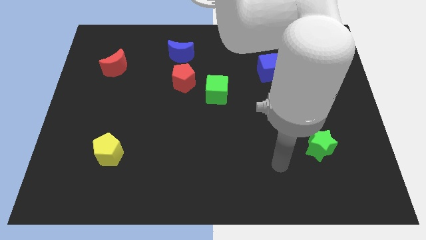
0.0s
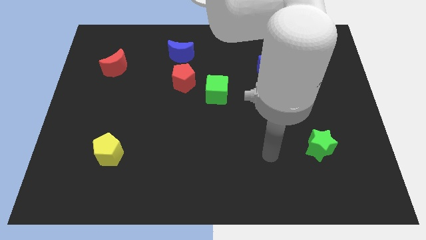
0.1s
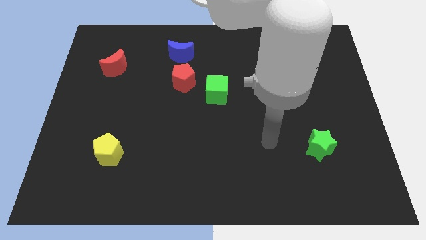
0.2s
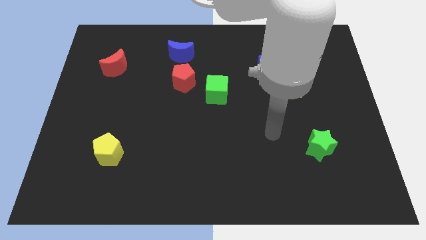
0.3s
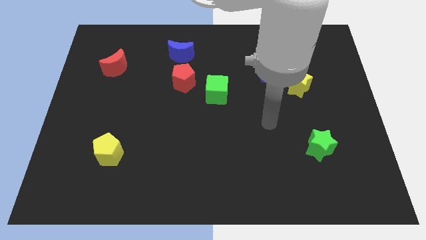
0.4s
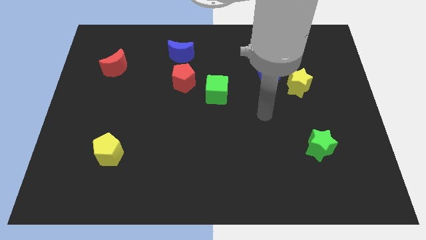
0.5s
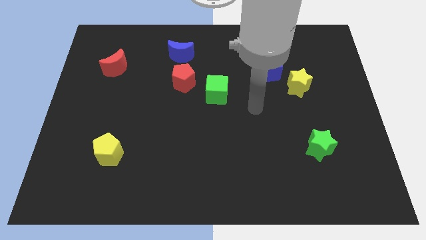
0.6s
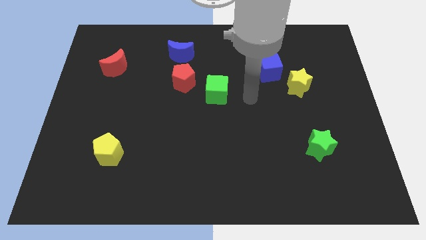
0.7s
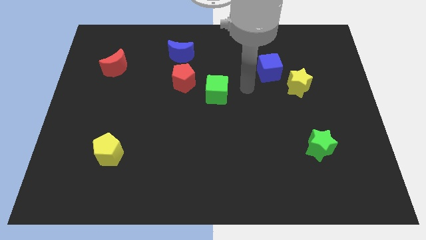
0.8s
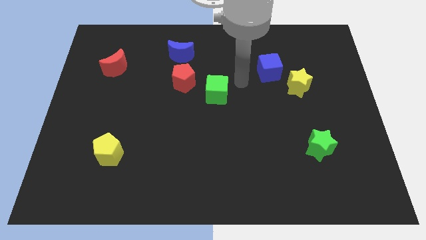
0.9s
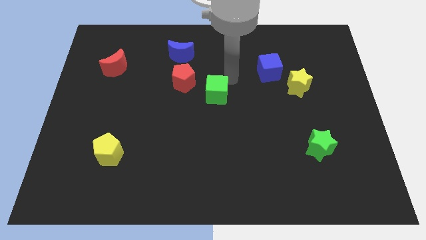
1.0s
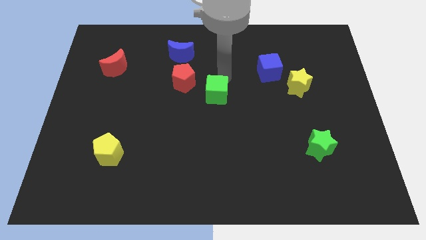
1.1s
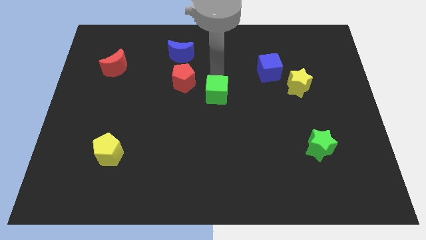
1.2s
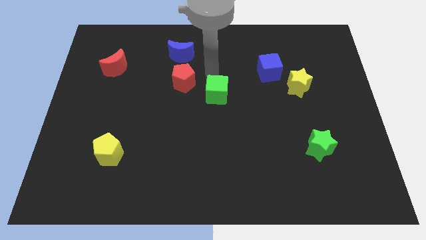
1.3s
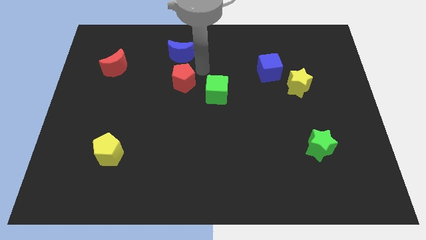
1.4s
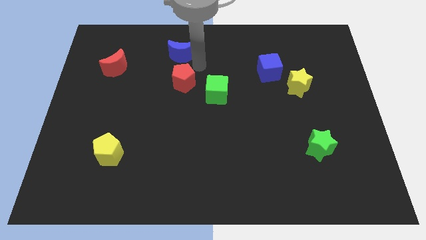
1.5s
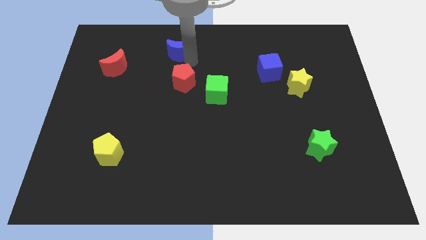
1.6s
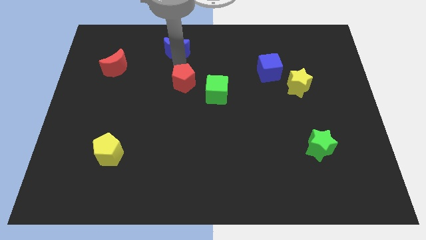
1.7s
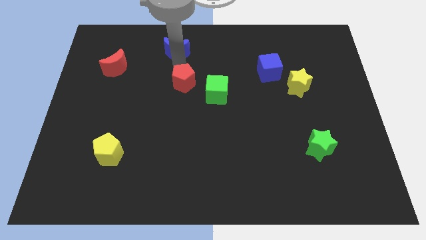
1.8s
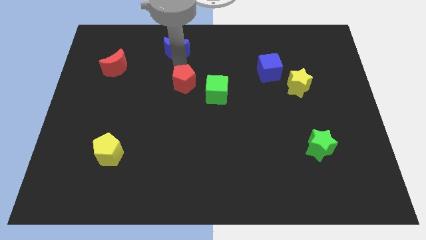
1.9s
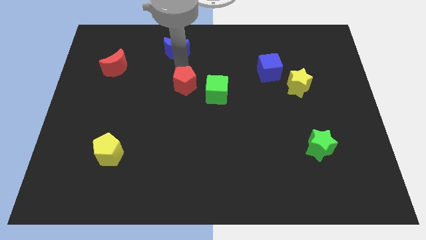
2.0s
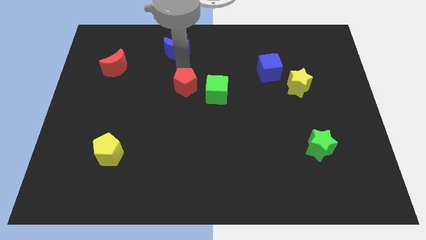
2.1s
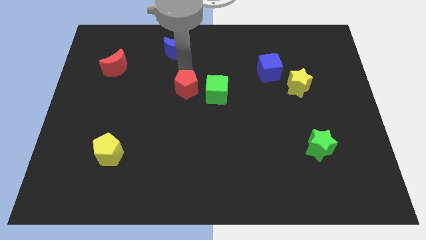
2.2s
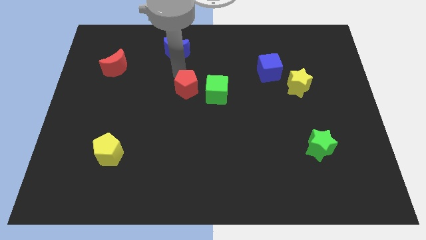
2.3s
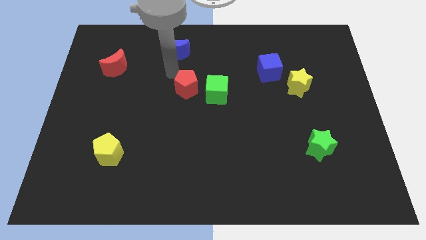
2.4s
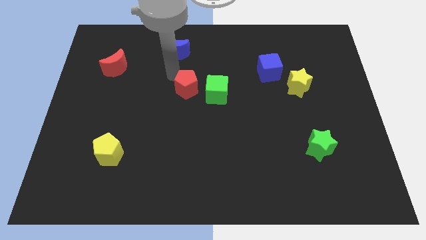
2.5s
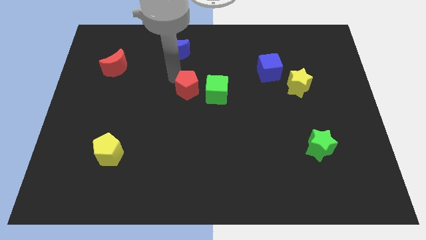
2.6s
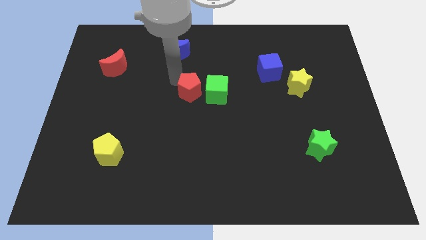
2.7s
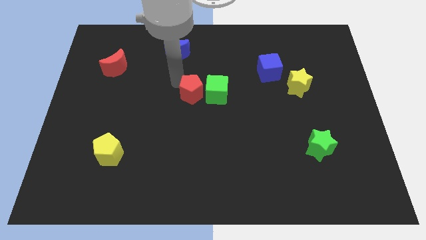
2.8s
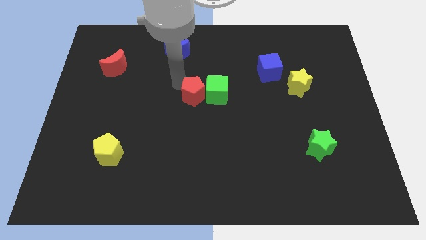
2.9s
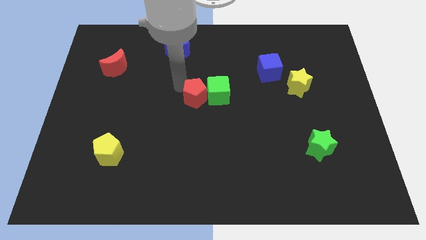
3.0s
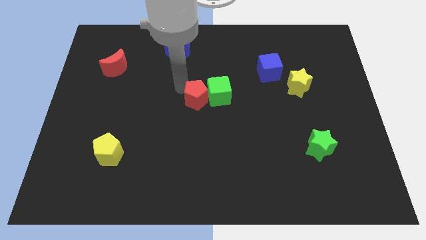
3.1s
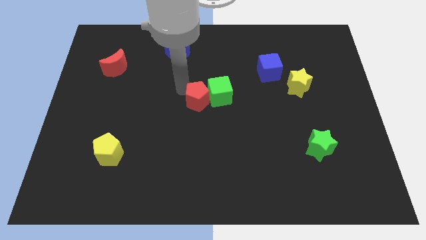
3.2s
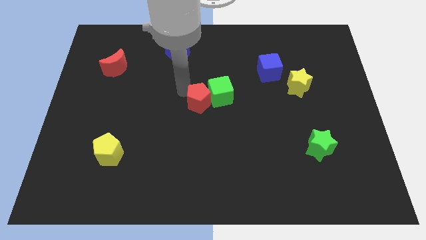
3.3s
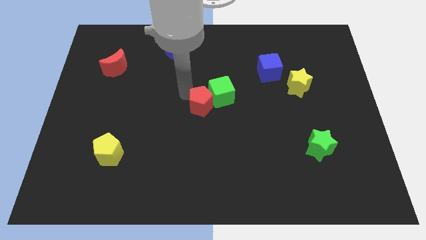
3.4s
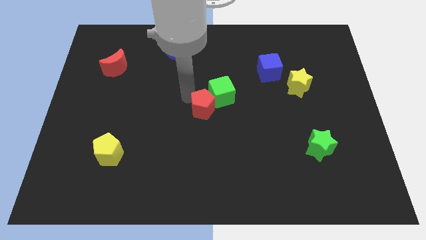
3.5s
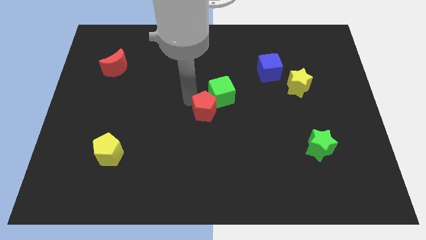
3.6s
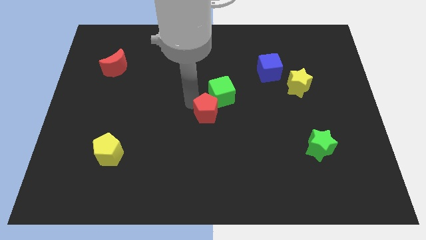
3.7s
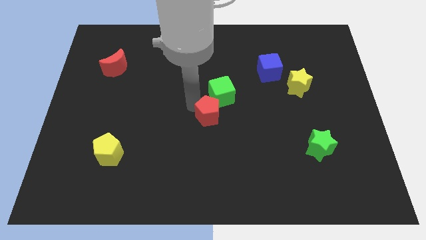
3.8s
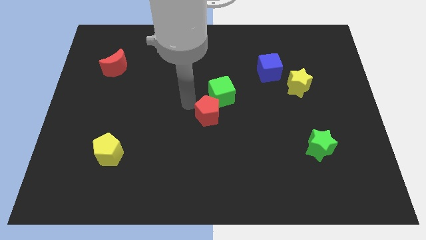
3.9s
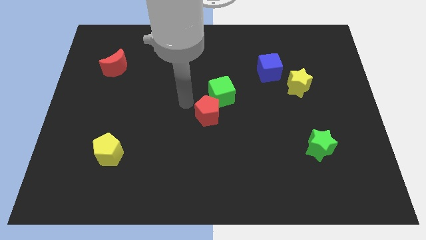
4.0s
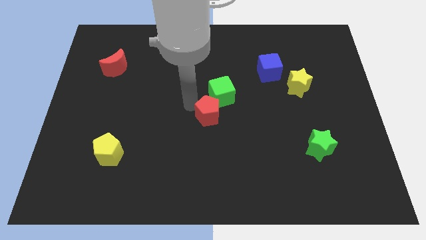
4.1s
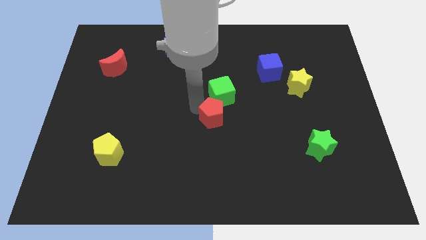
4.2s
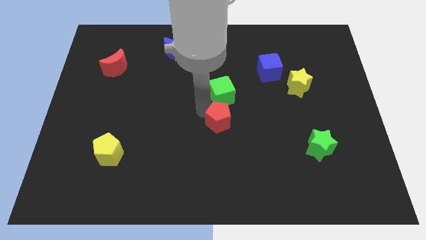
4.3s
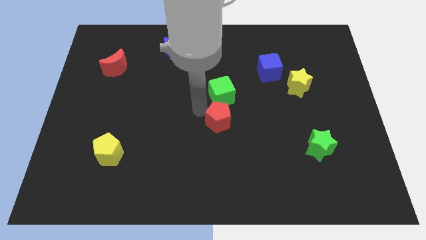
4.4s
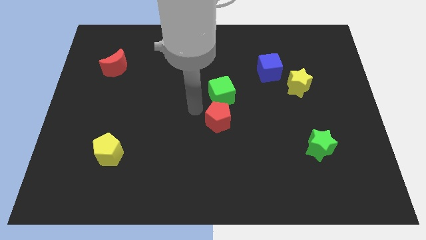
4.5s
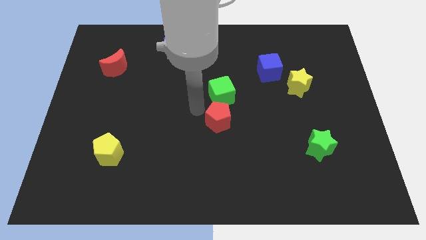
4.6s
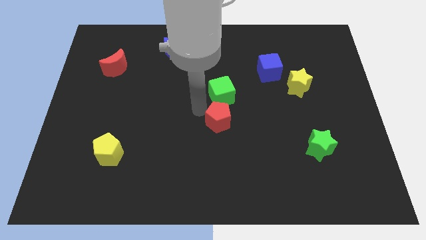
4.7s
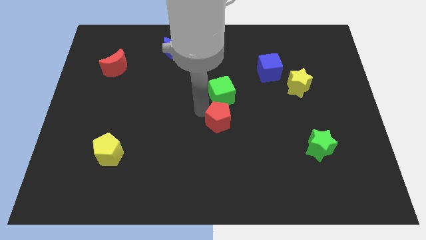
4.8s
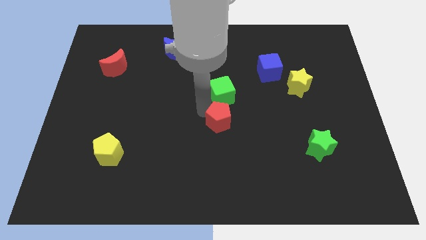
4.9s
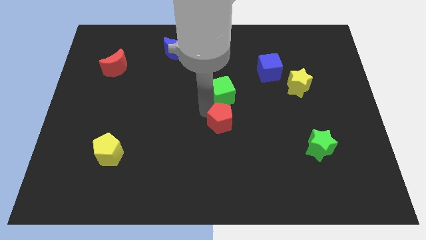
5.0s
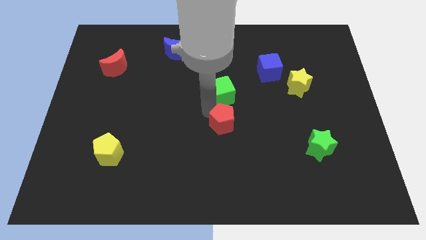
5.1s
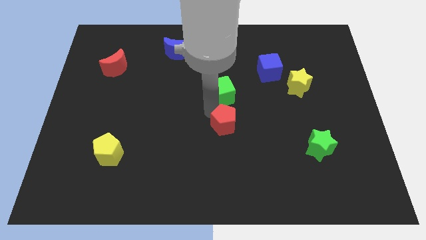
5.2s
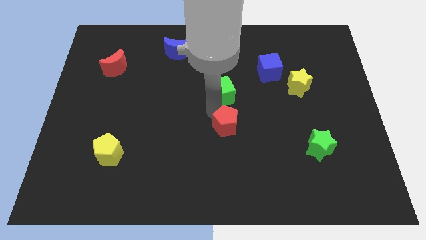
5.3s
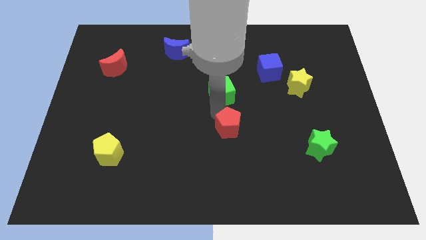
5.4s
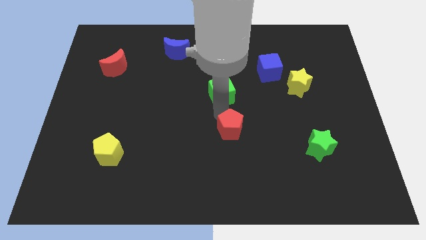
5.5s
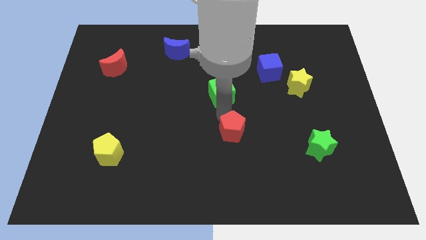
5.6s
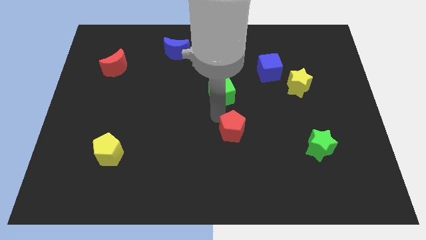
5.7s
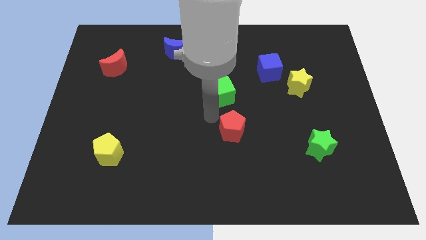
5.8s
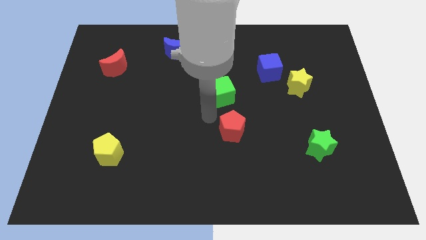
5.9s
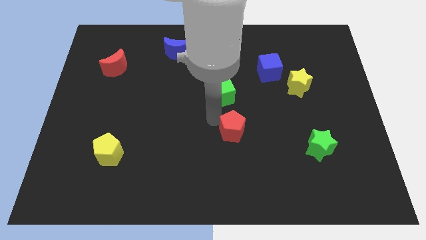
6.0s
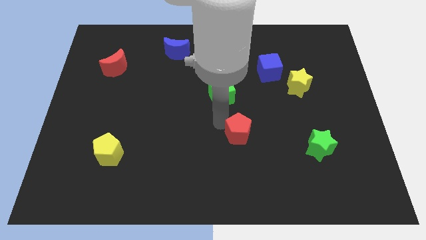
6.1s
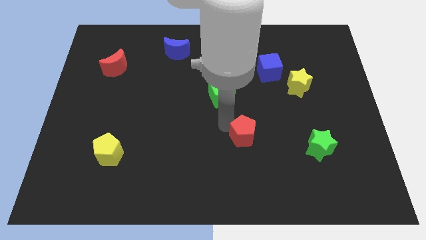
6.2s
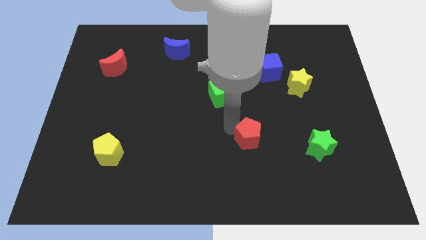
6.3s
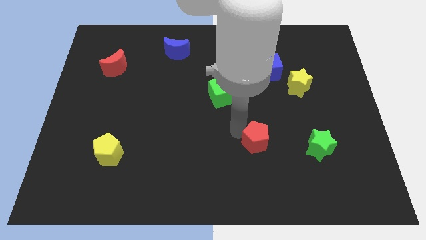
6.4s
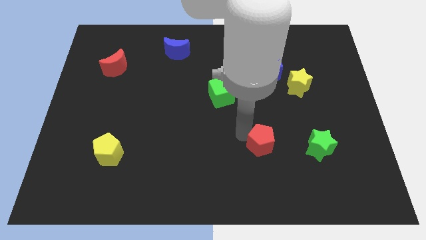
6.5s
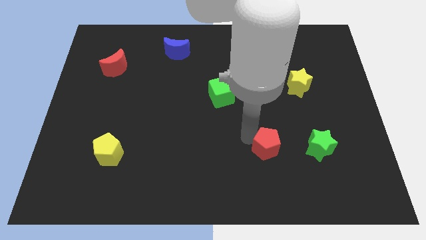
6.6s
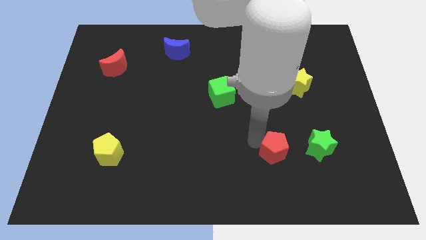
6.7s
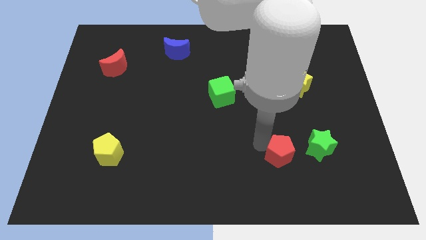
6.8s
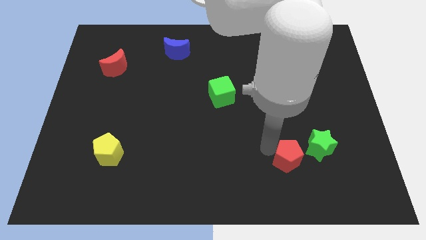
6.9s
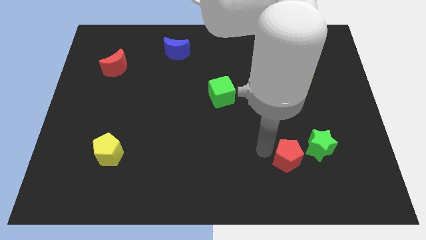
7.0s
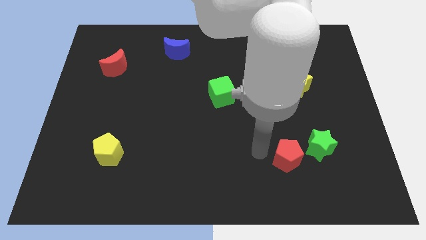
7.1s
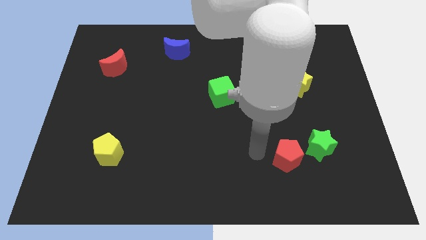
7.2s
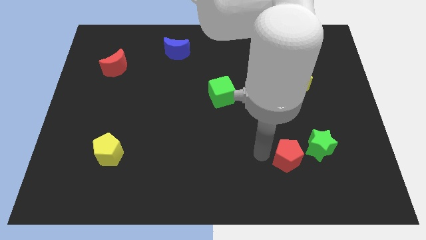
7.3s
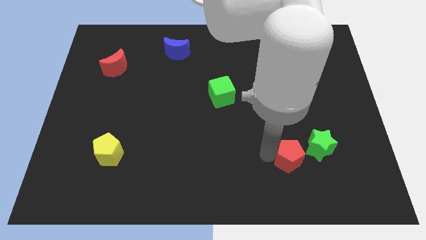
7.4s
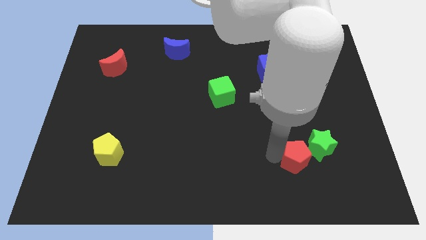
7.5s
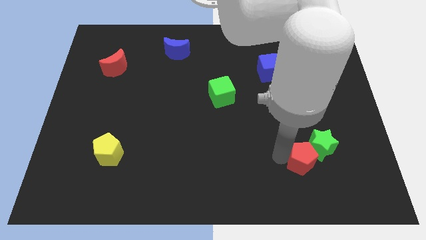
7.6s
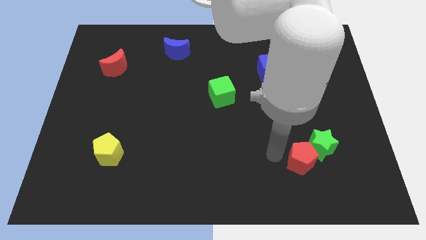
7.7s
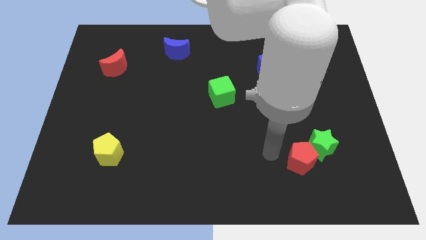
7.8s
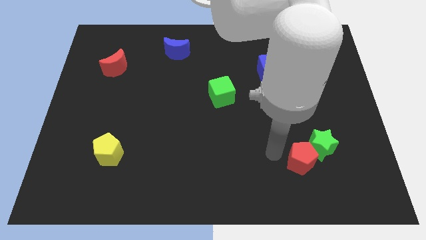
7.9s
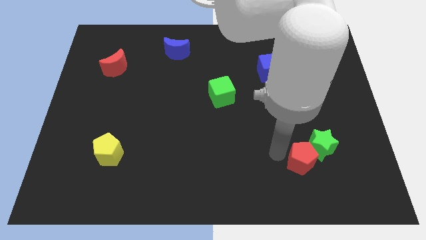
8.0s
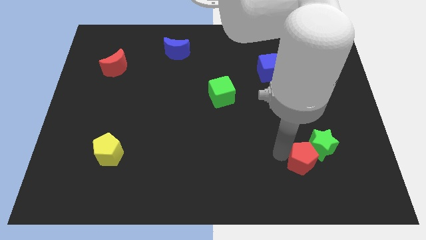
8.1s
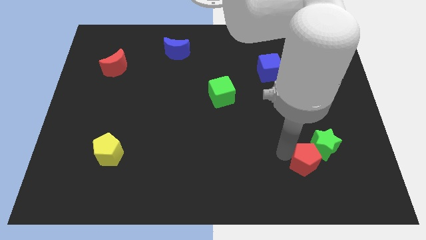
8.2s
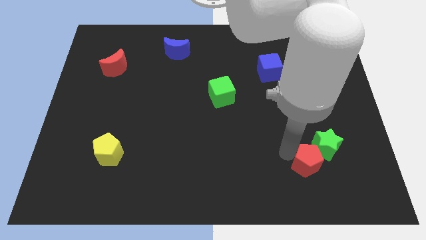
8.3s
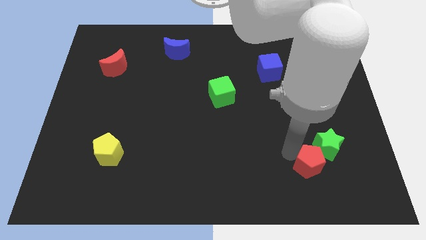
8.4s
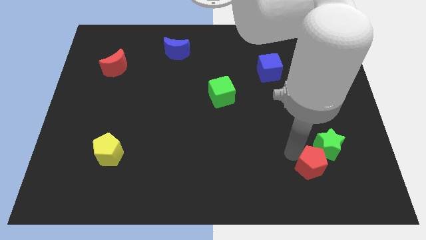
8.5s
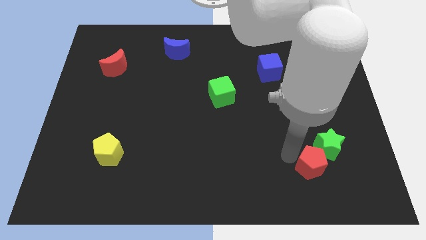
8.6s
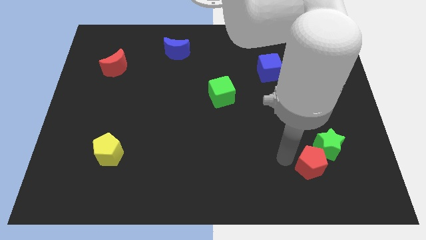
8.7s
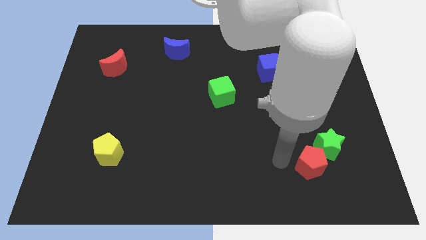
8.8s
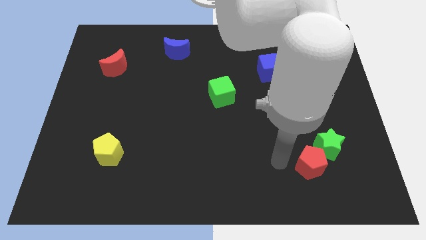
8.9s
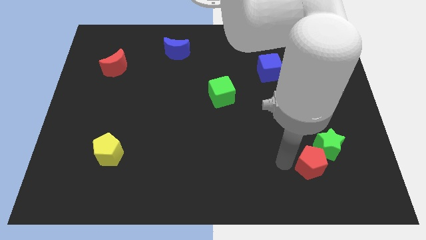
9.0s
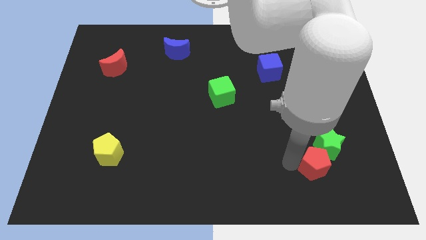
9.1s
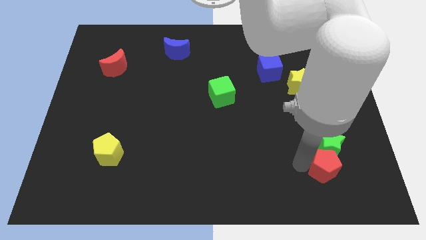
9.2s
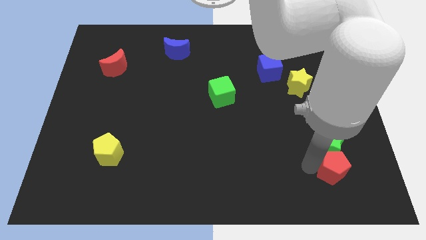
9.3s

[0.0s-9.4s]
push the red pentagon to the bottom right side of the green star
